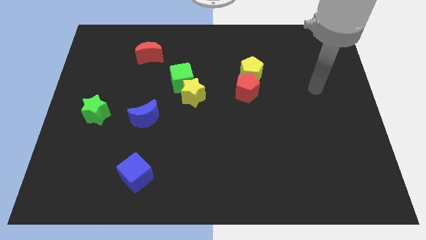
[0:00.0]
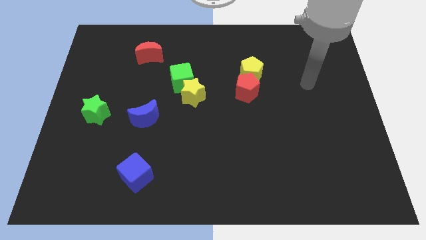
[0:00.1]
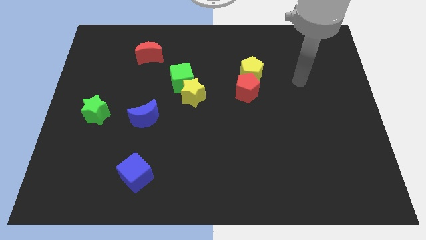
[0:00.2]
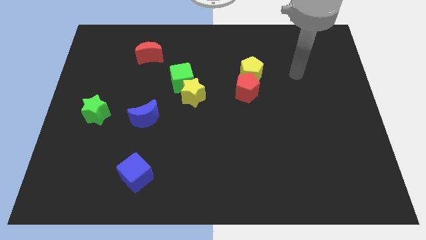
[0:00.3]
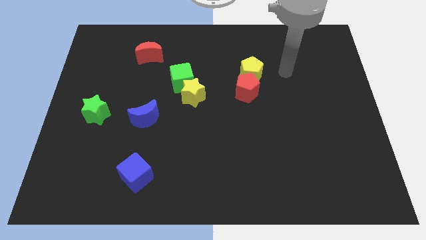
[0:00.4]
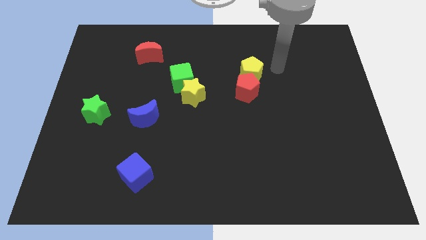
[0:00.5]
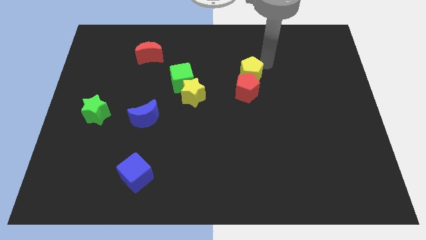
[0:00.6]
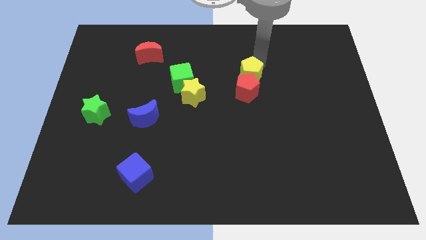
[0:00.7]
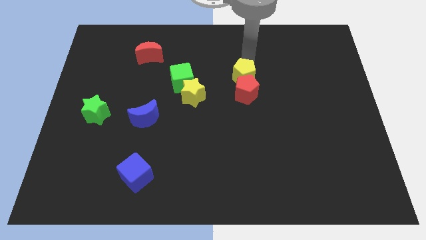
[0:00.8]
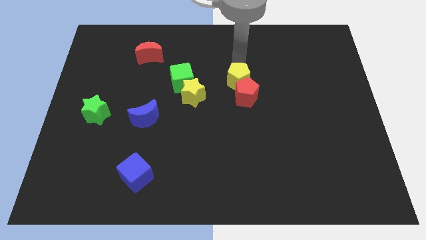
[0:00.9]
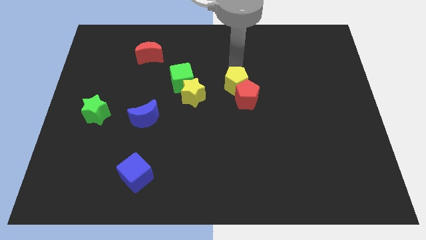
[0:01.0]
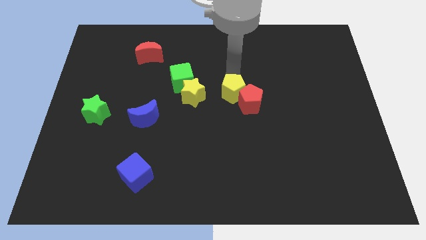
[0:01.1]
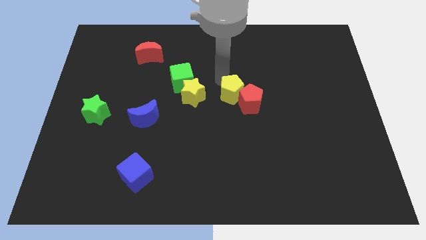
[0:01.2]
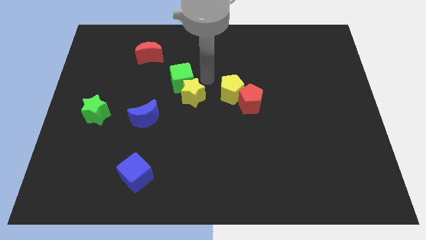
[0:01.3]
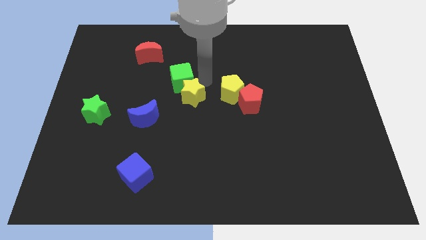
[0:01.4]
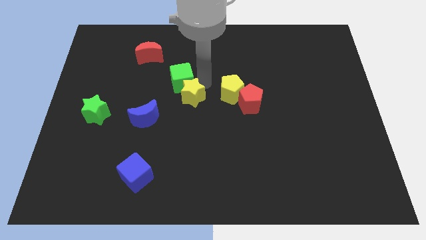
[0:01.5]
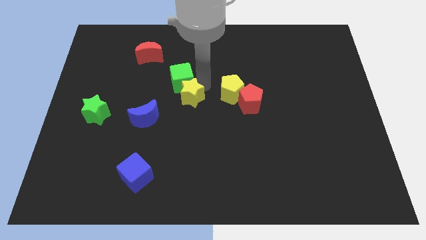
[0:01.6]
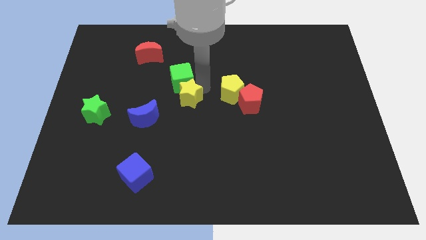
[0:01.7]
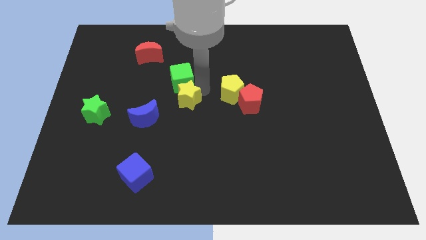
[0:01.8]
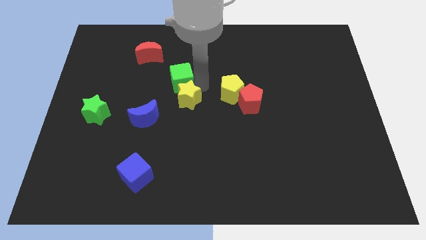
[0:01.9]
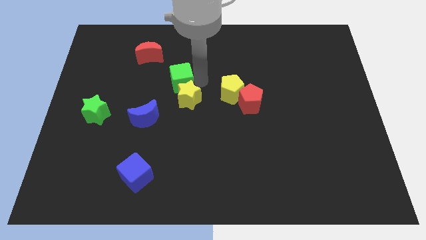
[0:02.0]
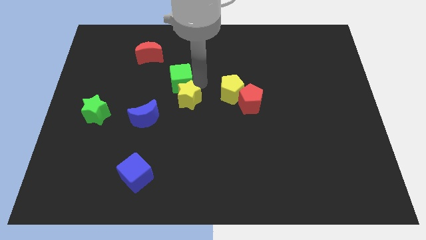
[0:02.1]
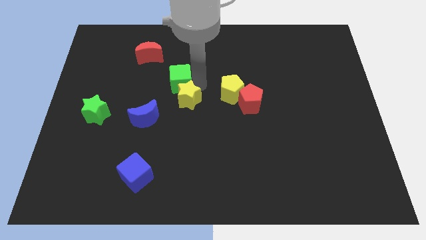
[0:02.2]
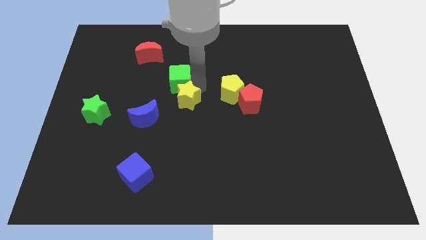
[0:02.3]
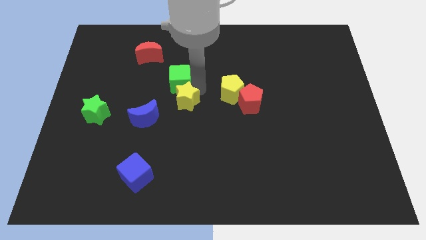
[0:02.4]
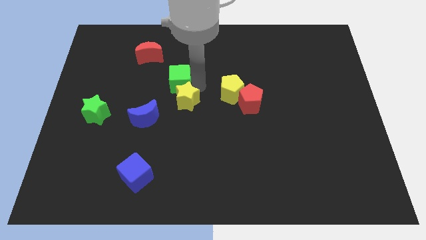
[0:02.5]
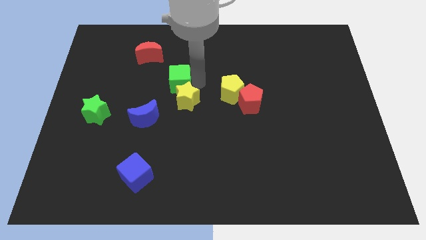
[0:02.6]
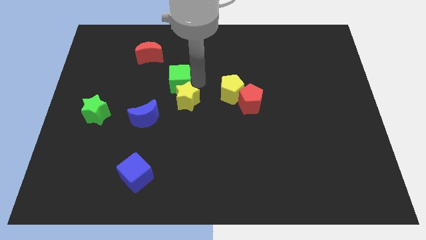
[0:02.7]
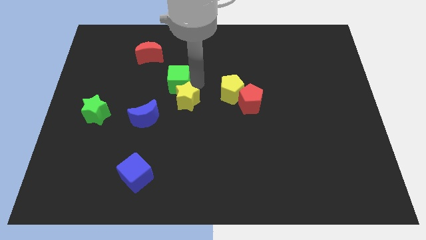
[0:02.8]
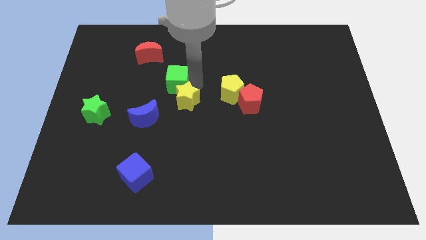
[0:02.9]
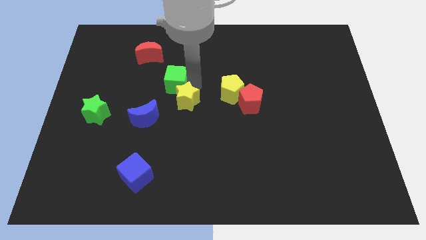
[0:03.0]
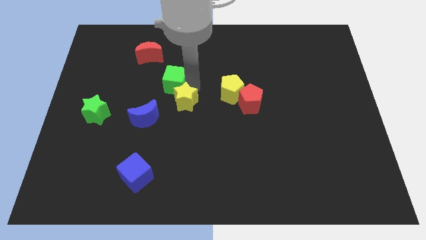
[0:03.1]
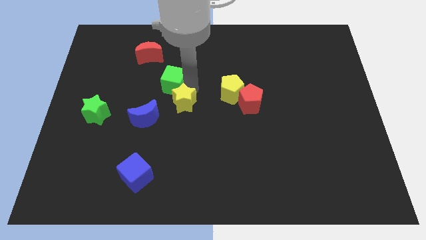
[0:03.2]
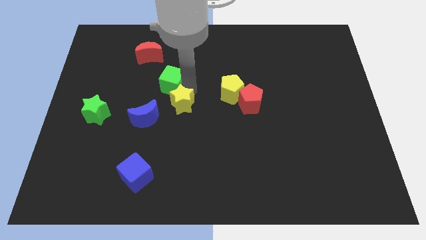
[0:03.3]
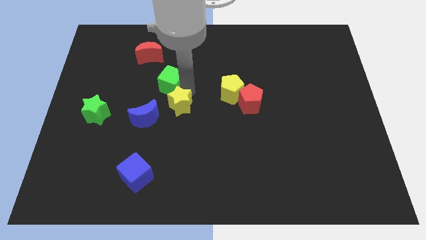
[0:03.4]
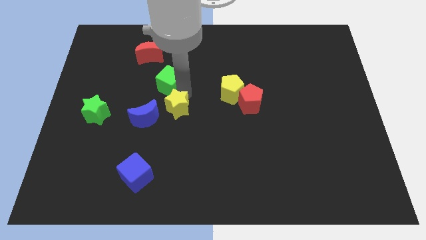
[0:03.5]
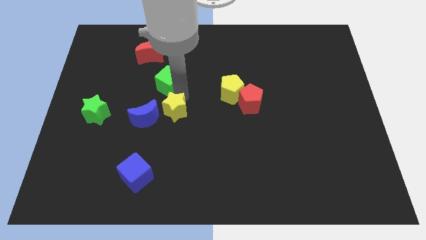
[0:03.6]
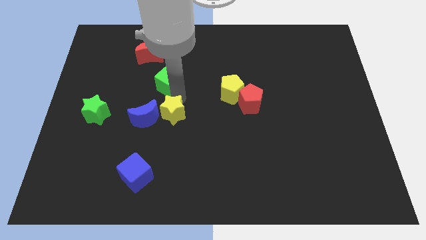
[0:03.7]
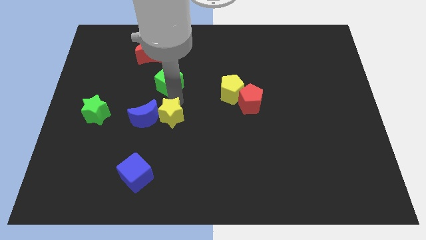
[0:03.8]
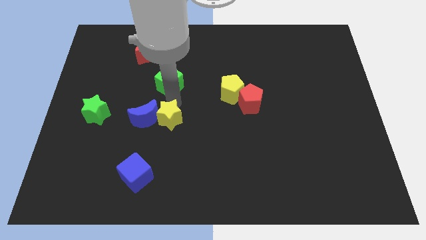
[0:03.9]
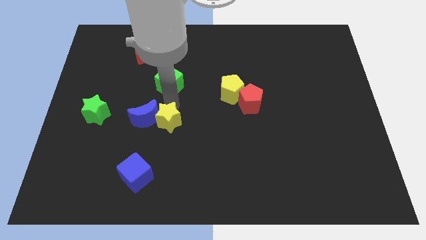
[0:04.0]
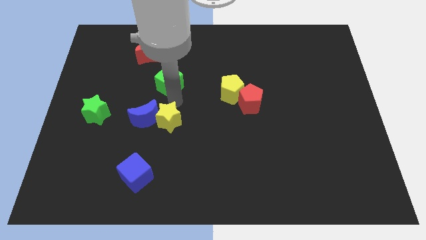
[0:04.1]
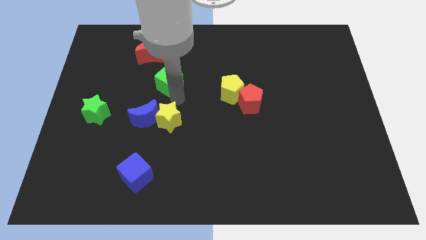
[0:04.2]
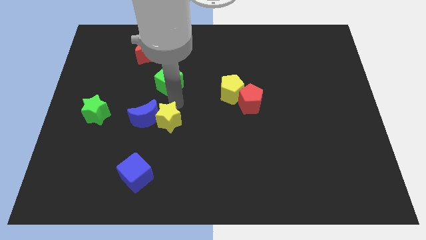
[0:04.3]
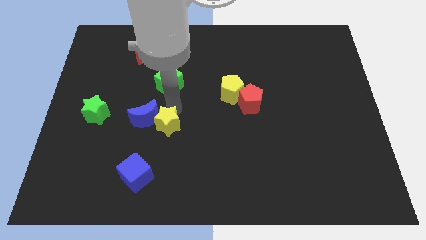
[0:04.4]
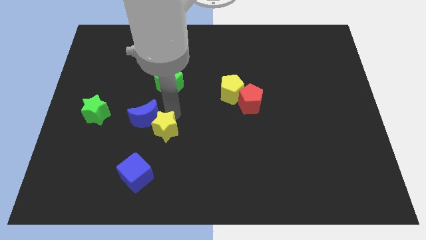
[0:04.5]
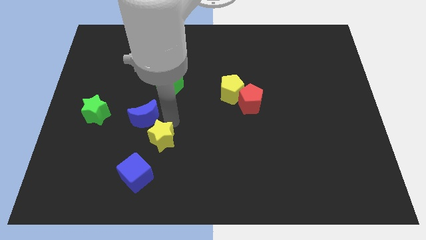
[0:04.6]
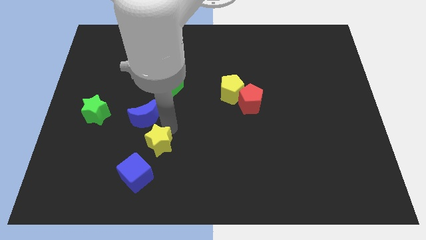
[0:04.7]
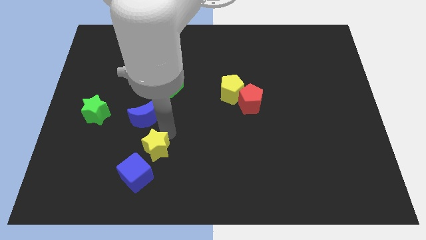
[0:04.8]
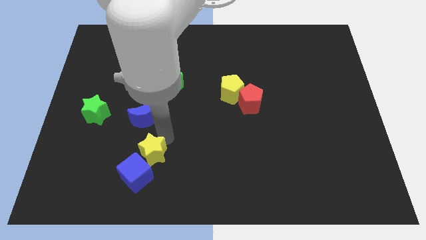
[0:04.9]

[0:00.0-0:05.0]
put the yellow star close to the blue cube

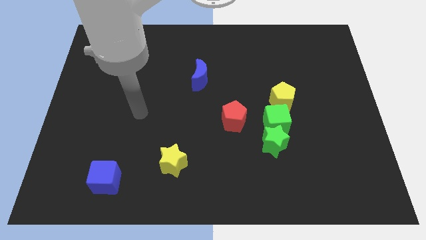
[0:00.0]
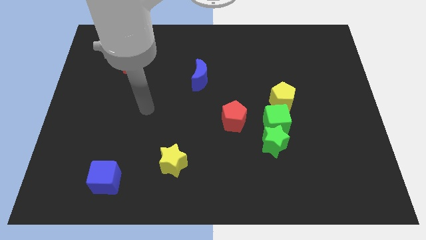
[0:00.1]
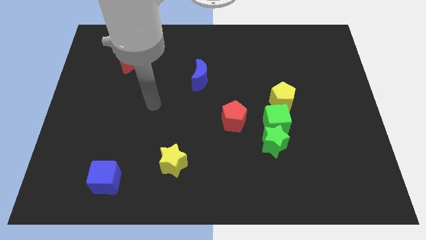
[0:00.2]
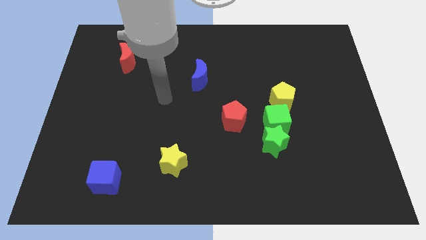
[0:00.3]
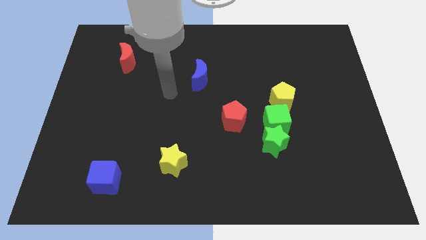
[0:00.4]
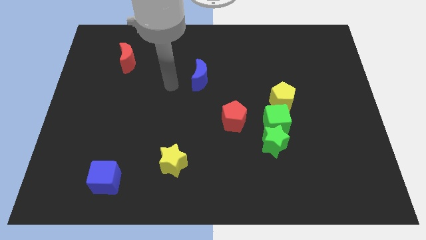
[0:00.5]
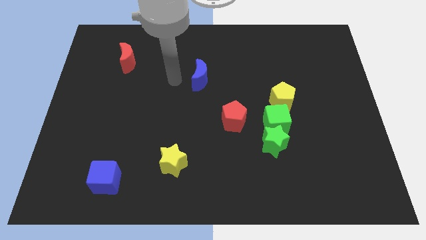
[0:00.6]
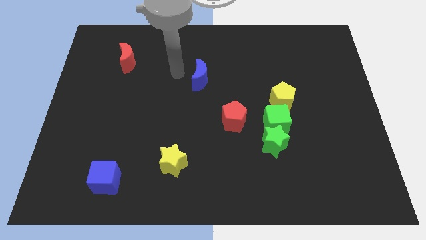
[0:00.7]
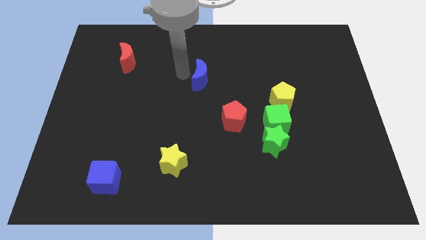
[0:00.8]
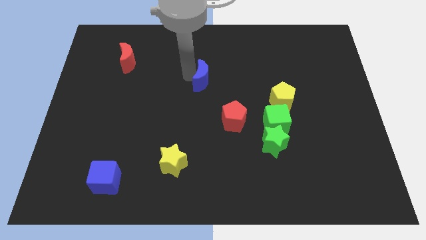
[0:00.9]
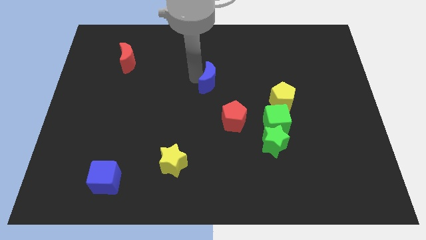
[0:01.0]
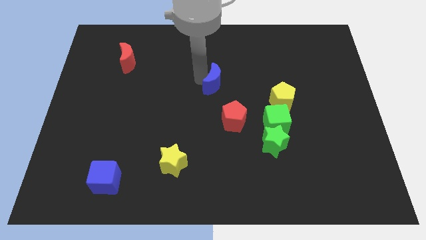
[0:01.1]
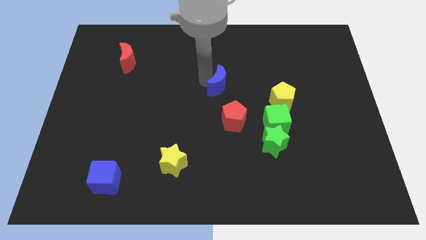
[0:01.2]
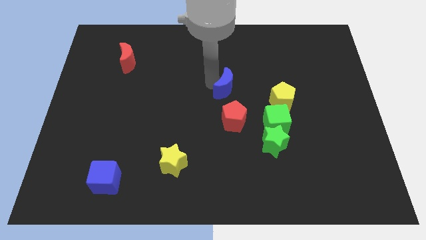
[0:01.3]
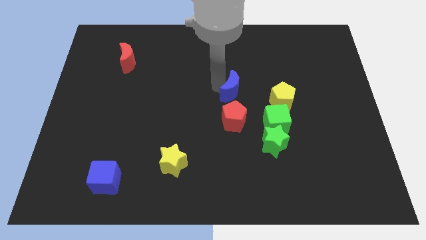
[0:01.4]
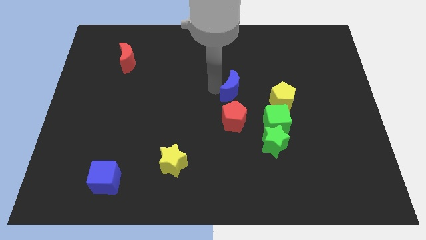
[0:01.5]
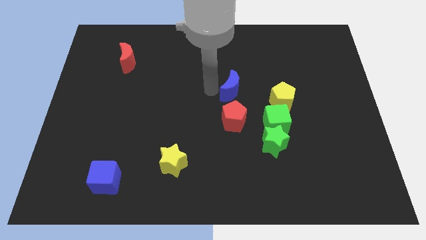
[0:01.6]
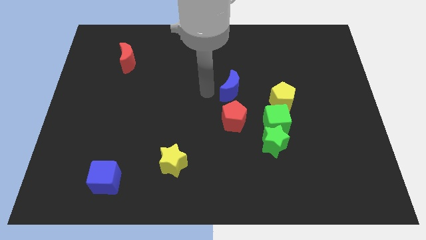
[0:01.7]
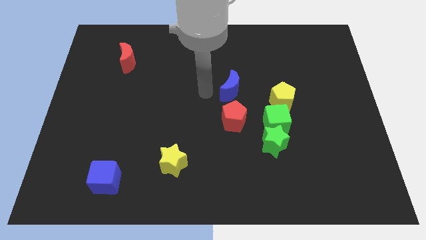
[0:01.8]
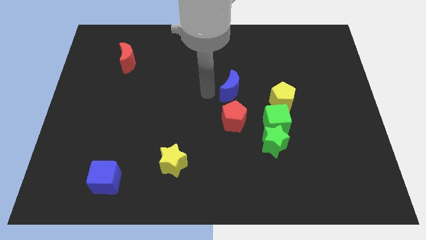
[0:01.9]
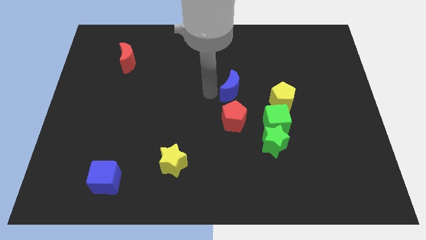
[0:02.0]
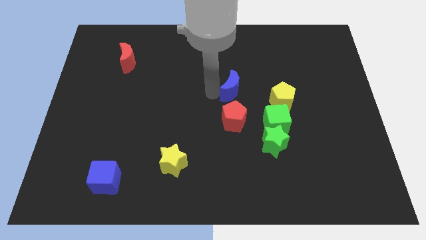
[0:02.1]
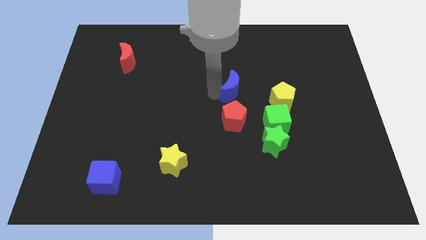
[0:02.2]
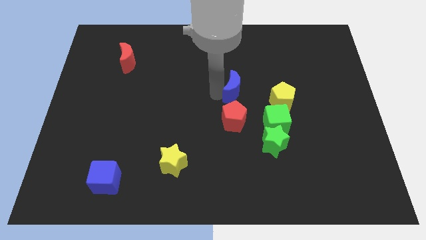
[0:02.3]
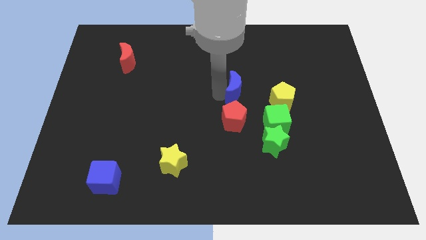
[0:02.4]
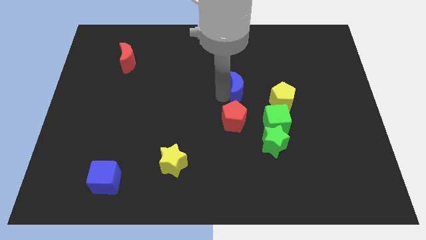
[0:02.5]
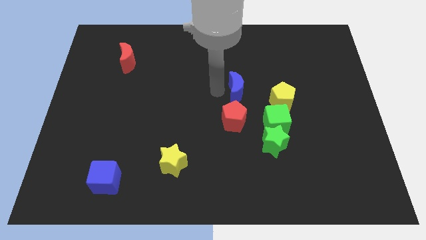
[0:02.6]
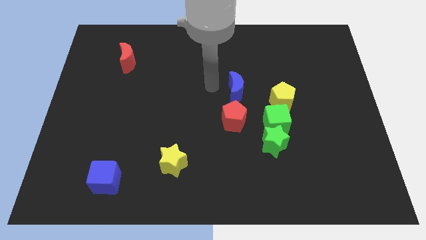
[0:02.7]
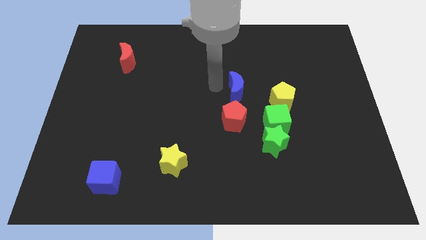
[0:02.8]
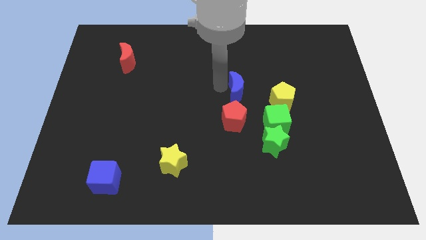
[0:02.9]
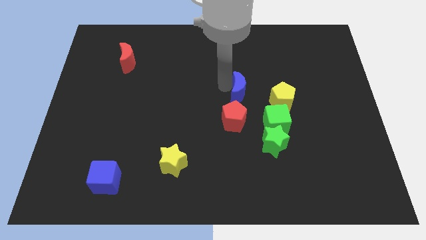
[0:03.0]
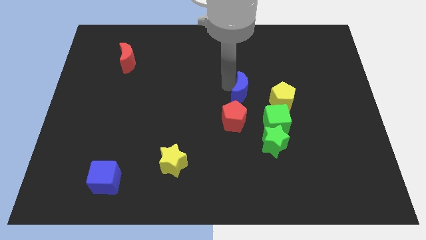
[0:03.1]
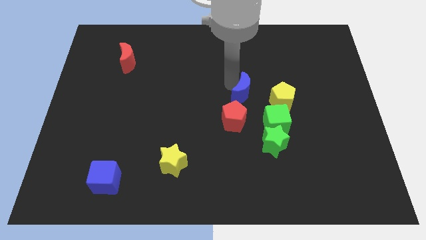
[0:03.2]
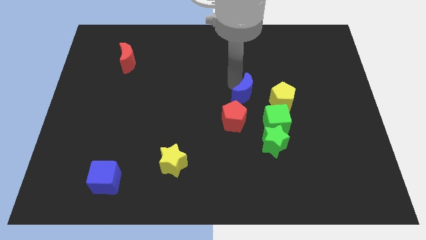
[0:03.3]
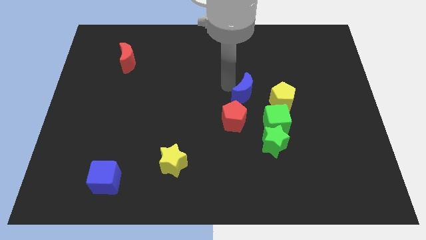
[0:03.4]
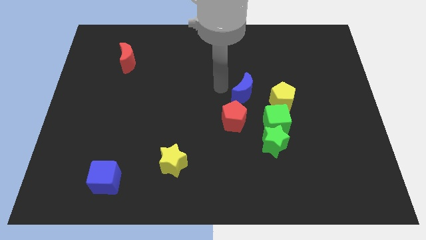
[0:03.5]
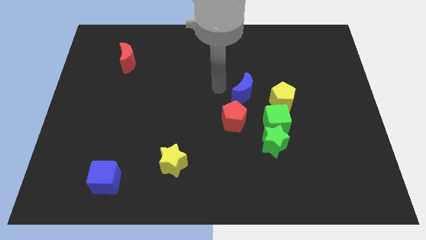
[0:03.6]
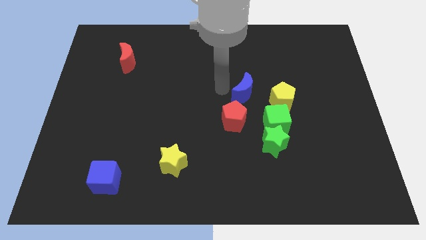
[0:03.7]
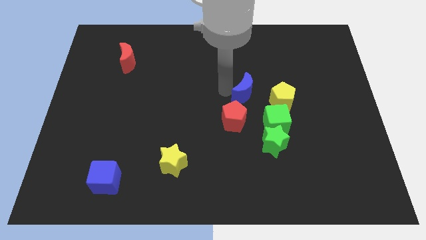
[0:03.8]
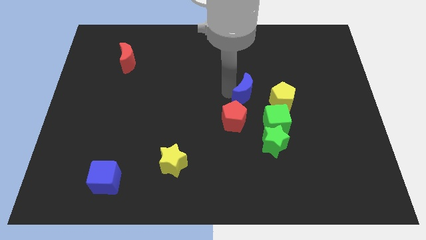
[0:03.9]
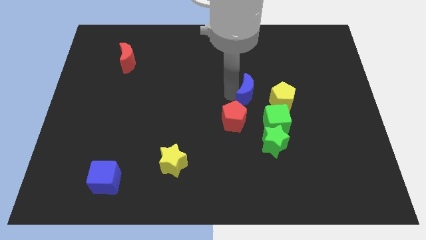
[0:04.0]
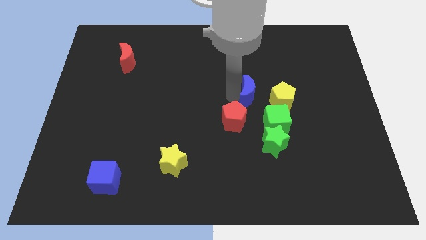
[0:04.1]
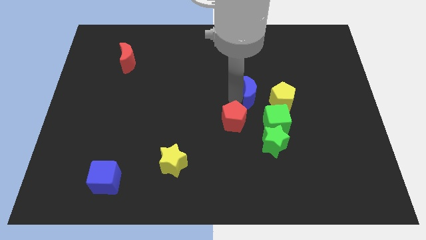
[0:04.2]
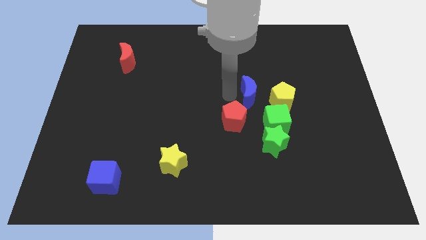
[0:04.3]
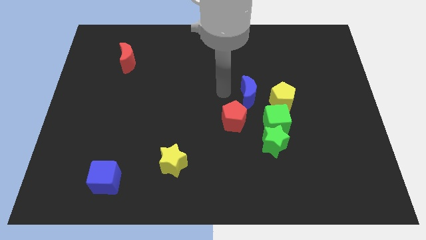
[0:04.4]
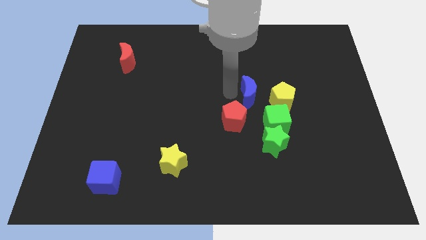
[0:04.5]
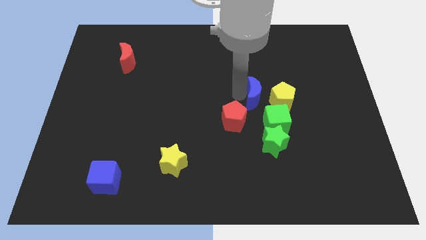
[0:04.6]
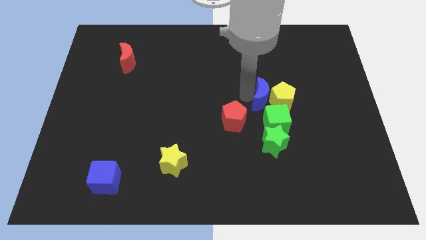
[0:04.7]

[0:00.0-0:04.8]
slide the blue moon next to the yellow pentagon
